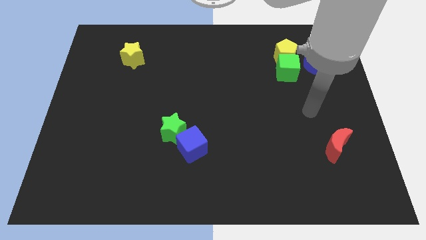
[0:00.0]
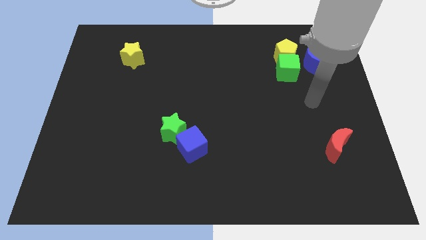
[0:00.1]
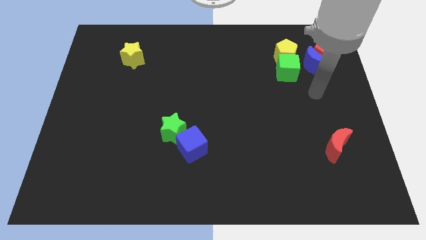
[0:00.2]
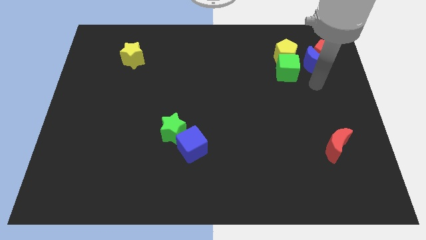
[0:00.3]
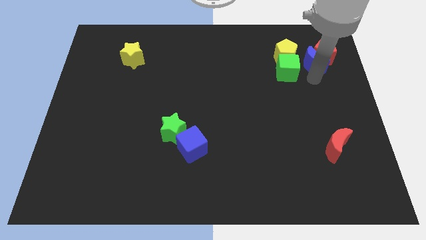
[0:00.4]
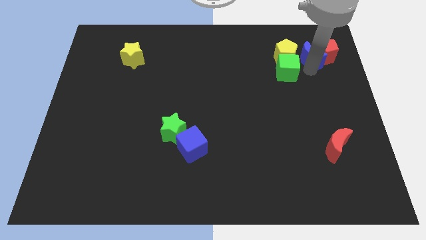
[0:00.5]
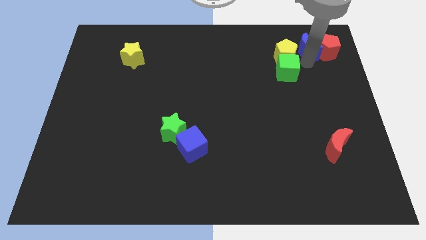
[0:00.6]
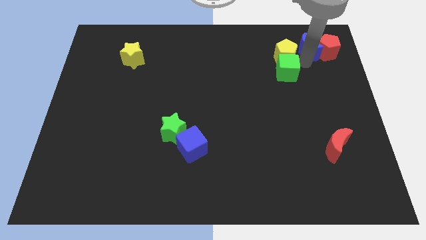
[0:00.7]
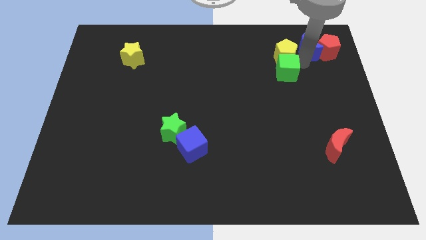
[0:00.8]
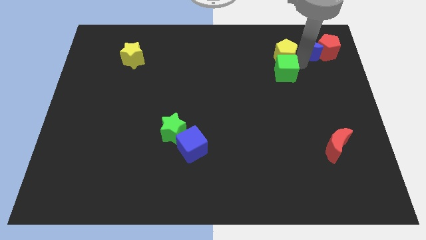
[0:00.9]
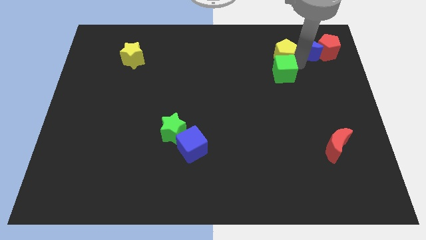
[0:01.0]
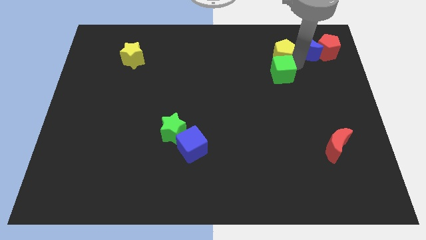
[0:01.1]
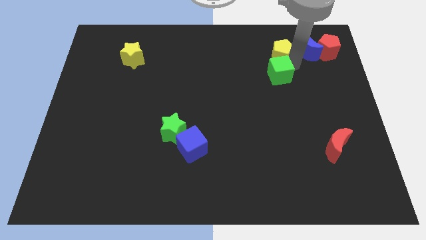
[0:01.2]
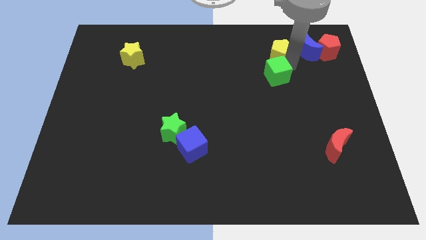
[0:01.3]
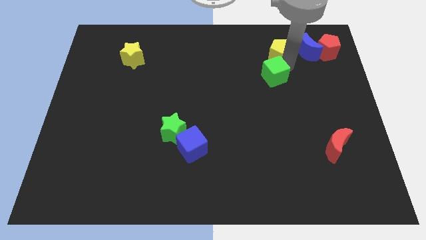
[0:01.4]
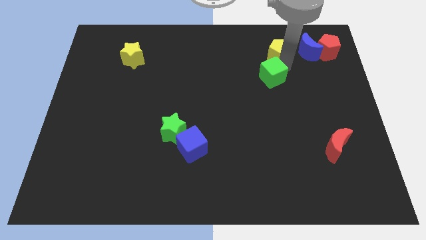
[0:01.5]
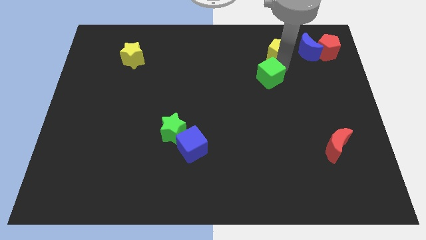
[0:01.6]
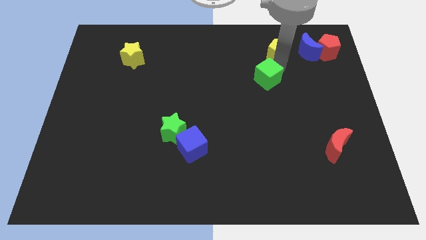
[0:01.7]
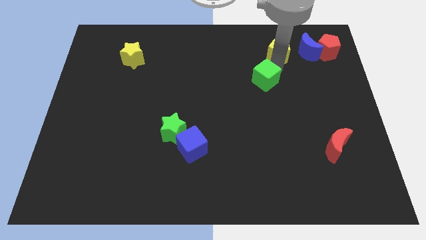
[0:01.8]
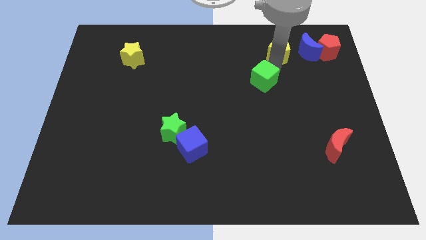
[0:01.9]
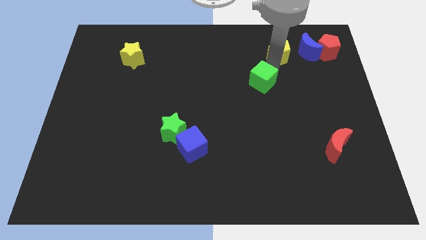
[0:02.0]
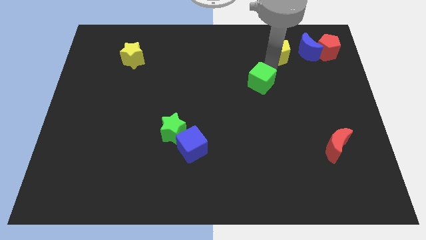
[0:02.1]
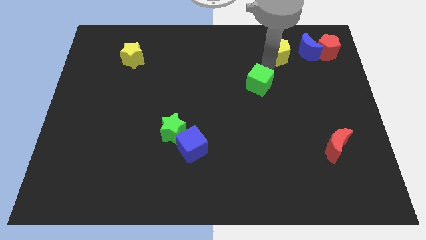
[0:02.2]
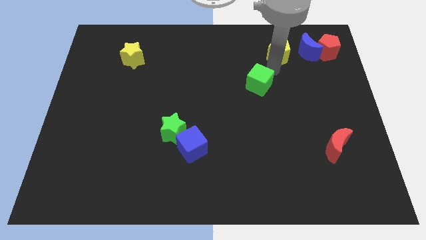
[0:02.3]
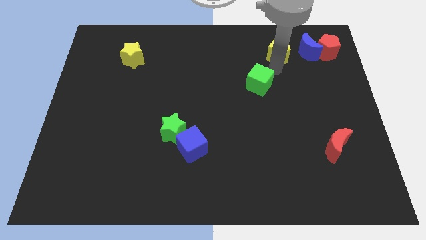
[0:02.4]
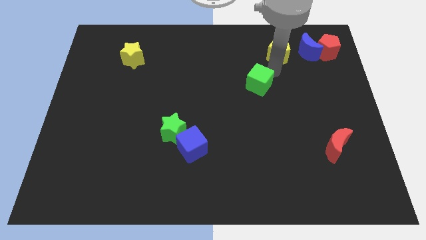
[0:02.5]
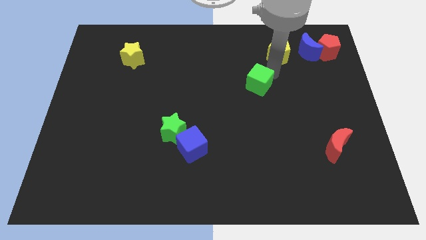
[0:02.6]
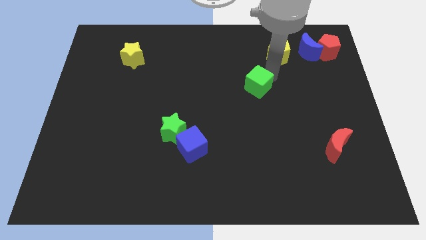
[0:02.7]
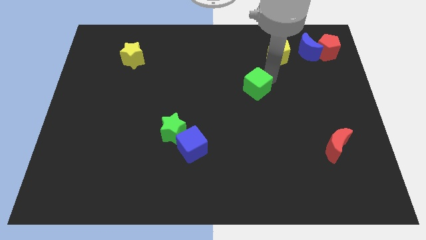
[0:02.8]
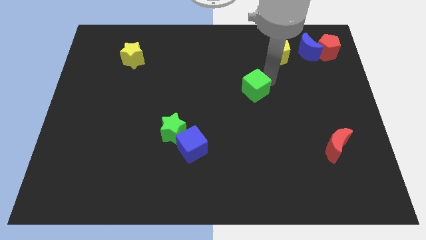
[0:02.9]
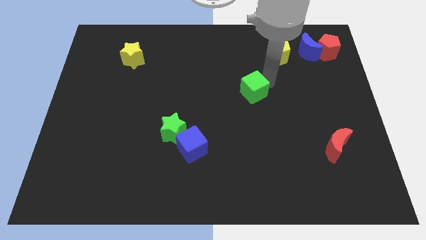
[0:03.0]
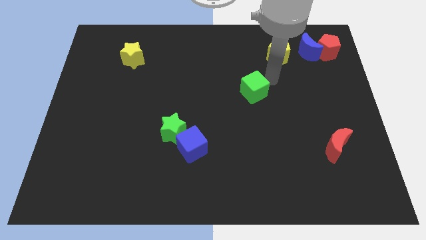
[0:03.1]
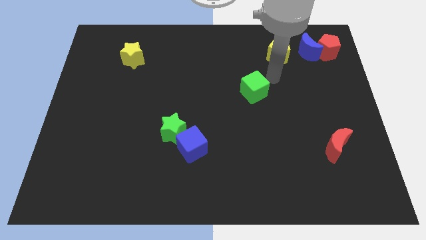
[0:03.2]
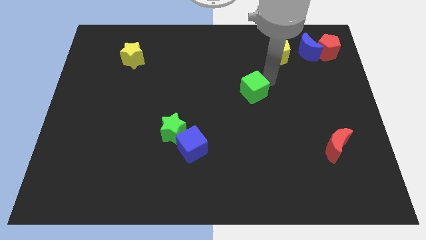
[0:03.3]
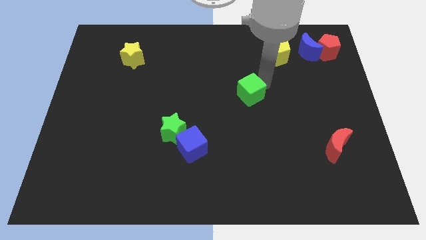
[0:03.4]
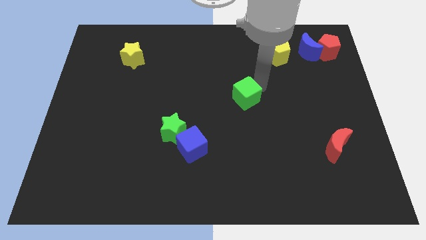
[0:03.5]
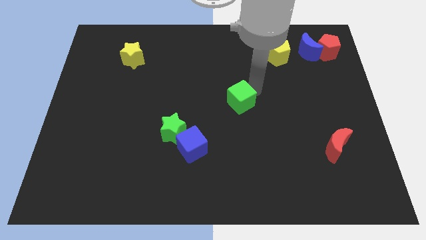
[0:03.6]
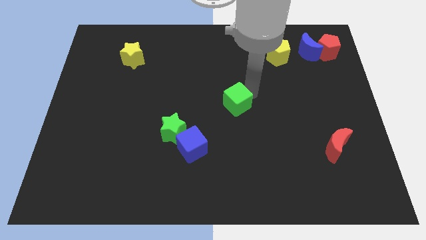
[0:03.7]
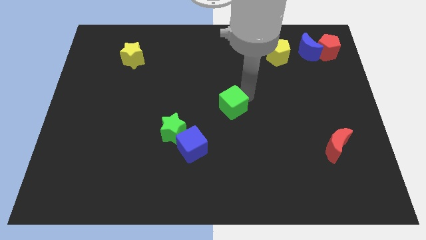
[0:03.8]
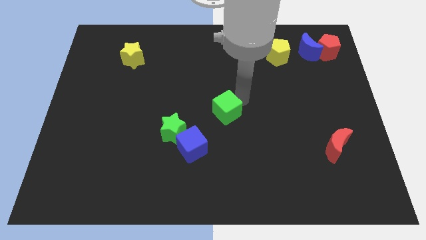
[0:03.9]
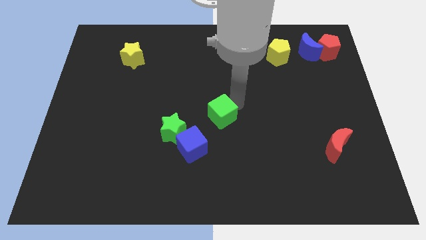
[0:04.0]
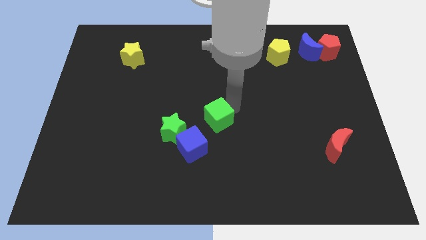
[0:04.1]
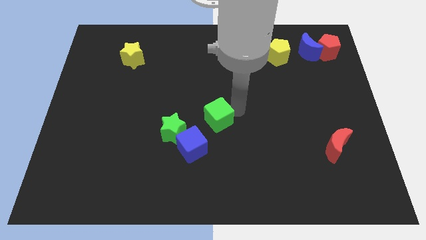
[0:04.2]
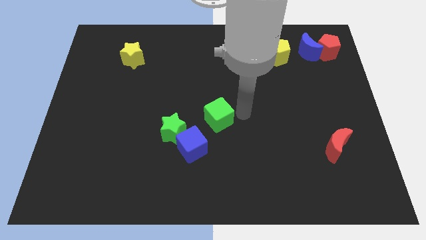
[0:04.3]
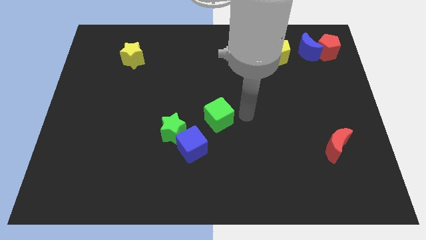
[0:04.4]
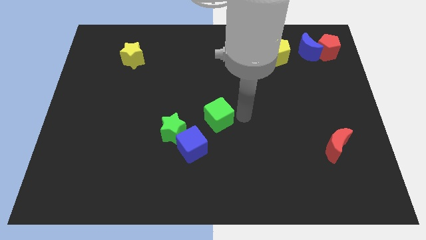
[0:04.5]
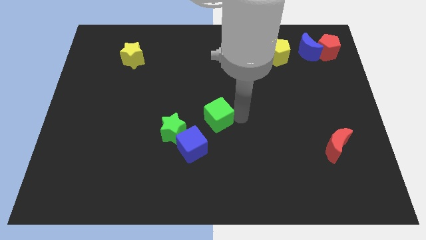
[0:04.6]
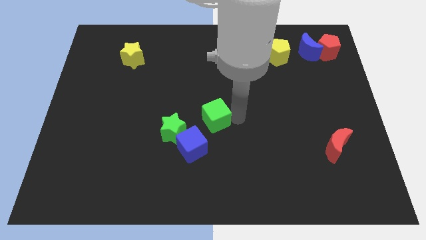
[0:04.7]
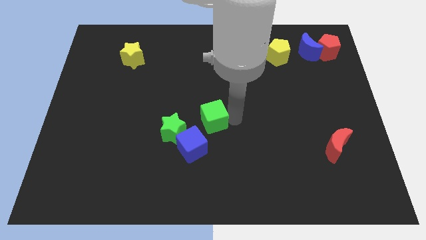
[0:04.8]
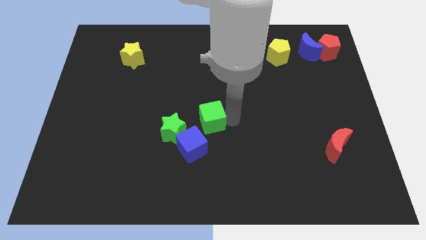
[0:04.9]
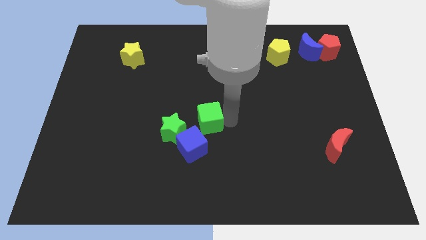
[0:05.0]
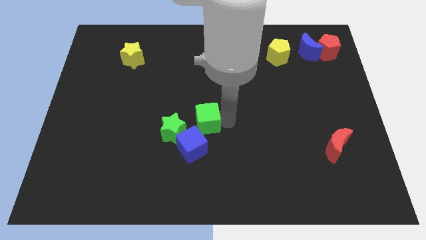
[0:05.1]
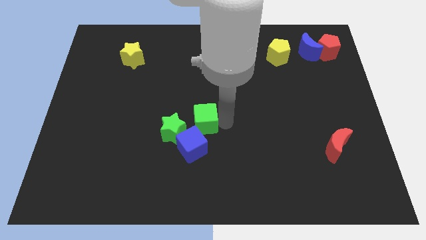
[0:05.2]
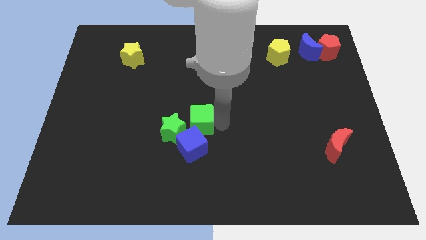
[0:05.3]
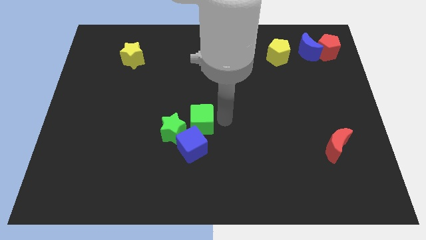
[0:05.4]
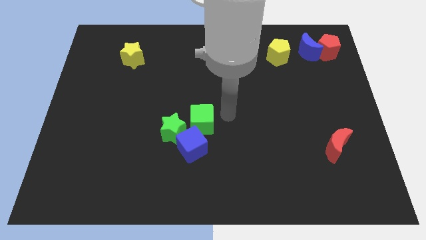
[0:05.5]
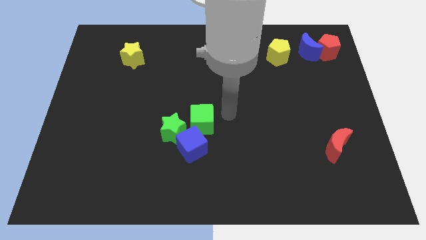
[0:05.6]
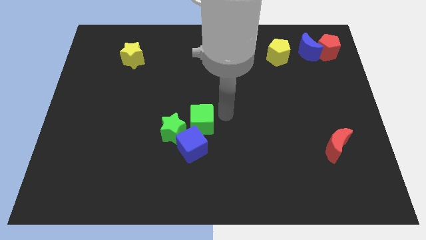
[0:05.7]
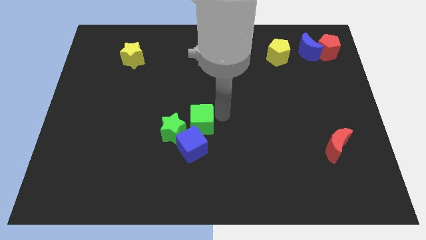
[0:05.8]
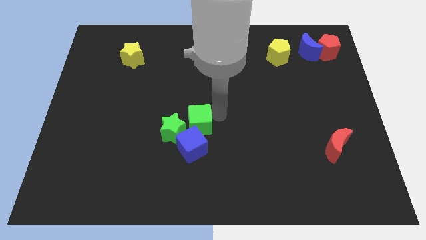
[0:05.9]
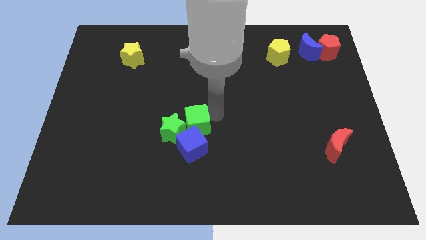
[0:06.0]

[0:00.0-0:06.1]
push the green cube next to the green star

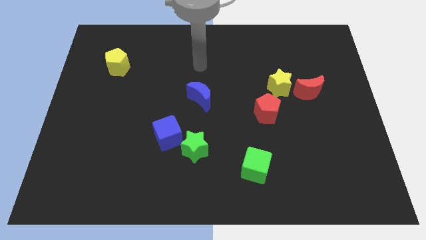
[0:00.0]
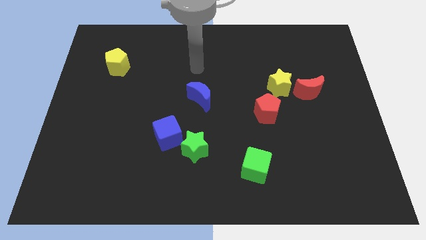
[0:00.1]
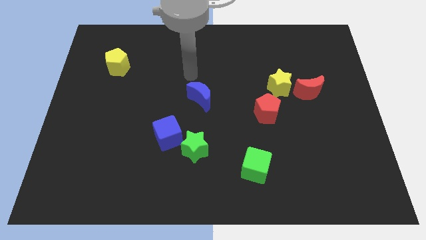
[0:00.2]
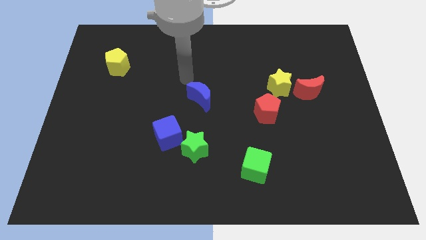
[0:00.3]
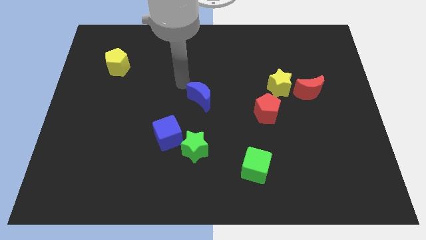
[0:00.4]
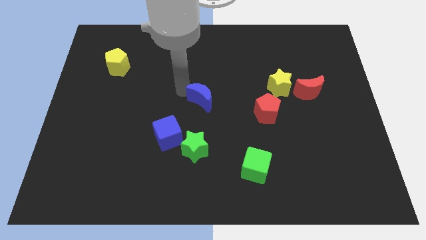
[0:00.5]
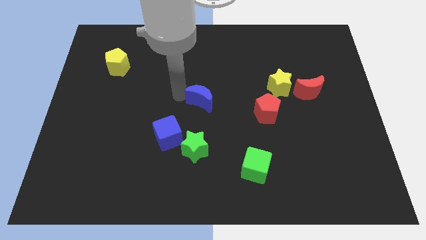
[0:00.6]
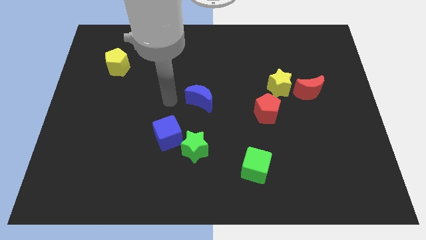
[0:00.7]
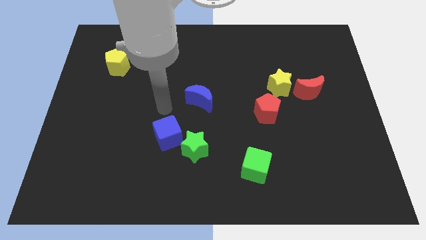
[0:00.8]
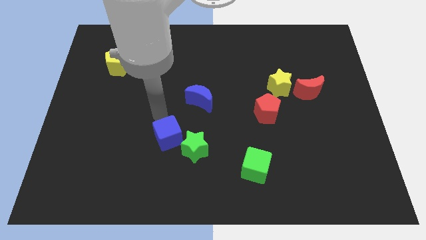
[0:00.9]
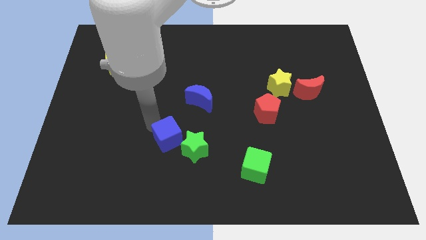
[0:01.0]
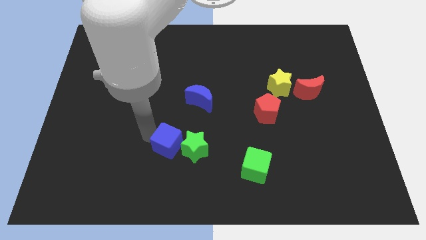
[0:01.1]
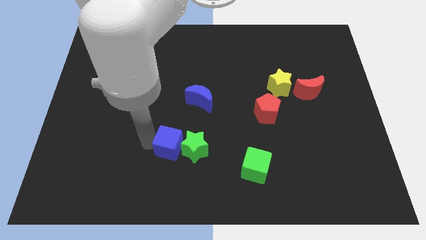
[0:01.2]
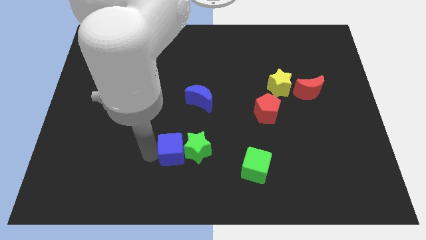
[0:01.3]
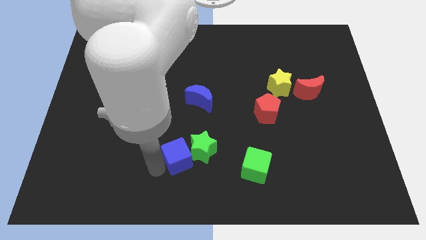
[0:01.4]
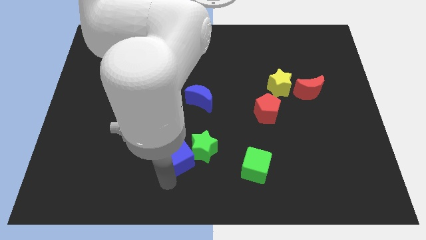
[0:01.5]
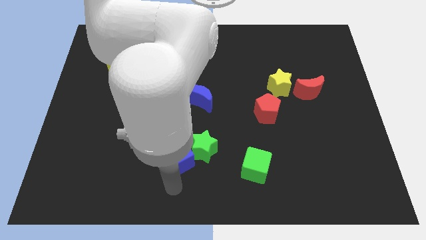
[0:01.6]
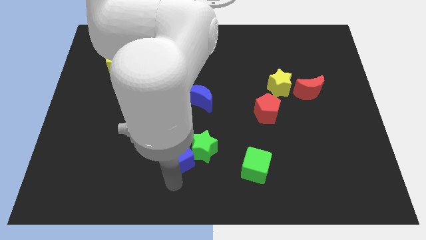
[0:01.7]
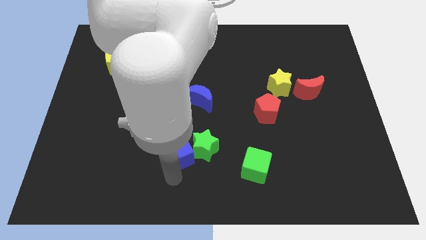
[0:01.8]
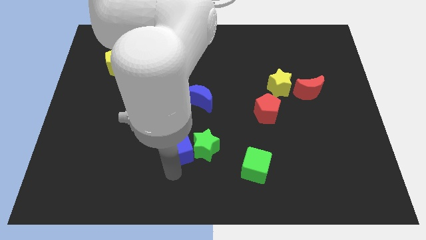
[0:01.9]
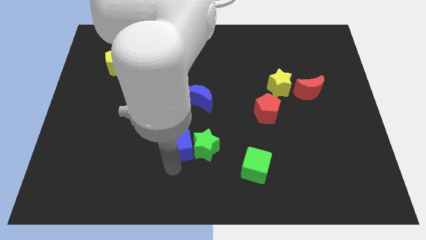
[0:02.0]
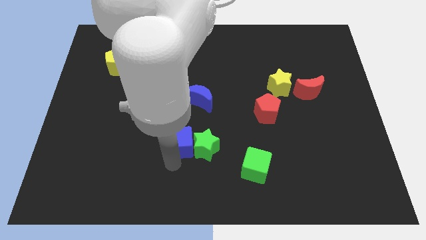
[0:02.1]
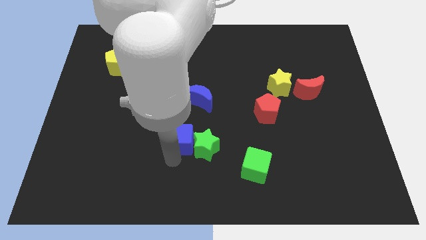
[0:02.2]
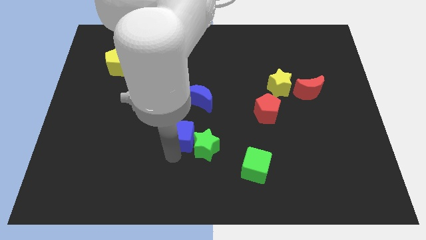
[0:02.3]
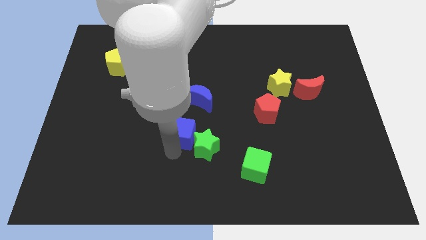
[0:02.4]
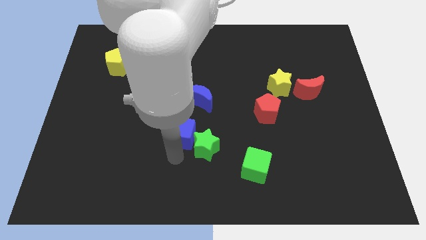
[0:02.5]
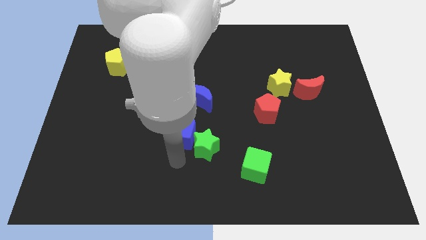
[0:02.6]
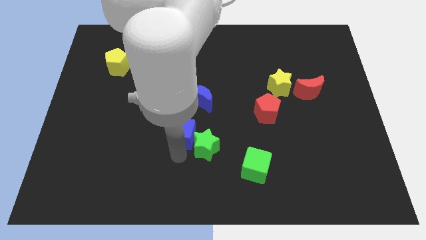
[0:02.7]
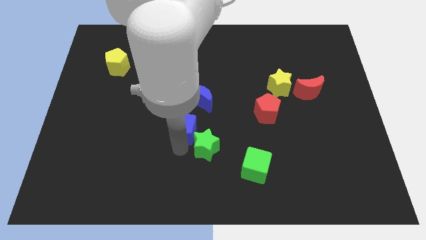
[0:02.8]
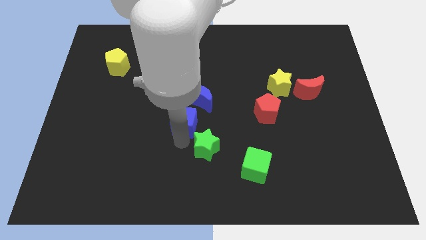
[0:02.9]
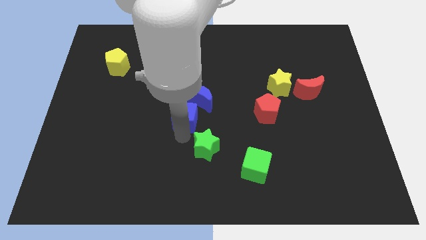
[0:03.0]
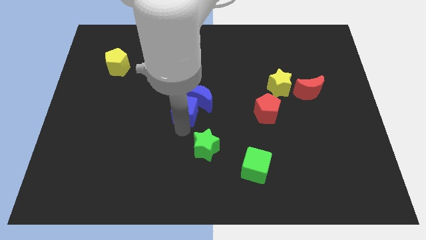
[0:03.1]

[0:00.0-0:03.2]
push the blue cube close to the blue moon
